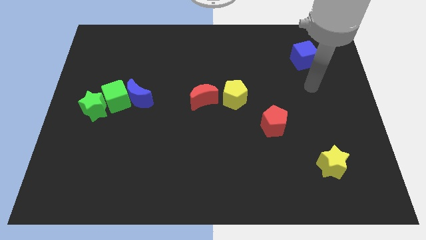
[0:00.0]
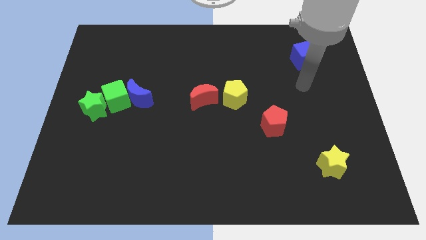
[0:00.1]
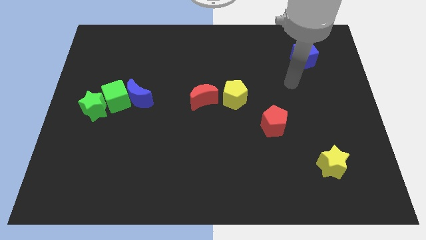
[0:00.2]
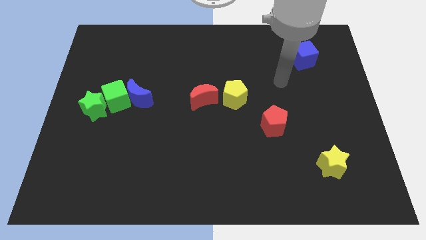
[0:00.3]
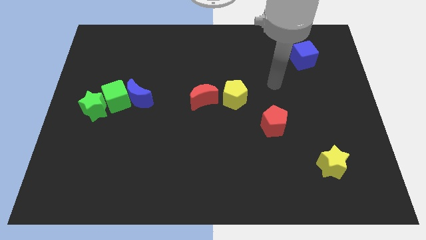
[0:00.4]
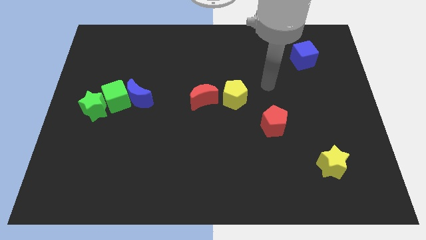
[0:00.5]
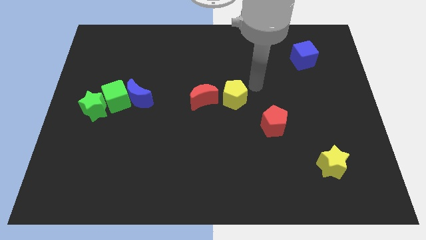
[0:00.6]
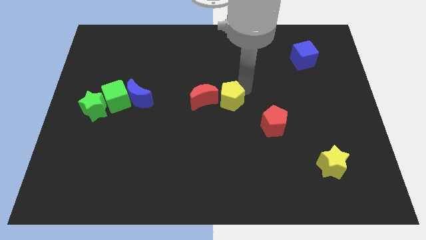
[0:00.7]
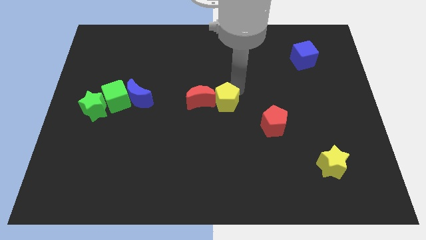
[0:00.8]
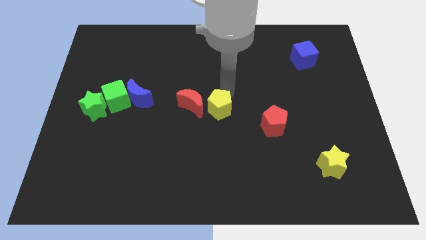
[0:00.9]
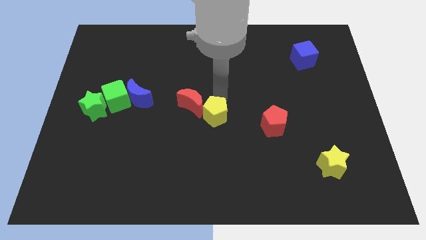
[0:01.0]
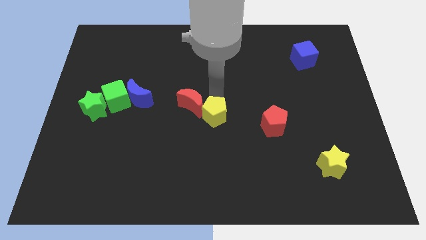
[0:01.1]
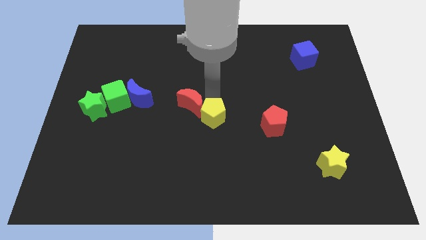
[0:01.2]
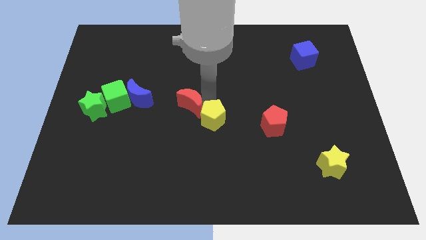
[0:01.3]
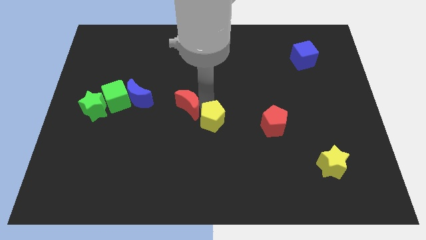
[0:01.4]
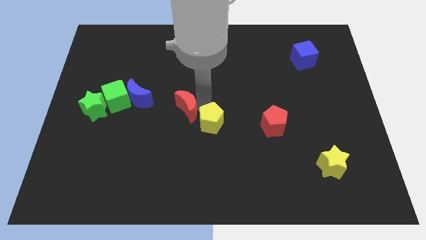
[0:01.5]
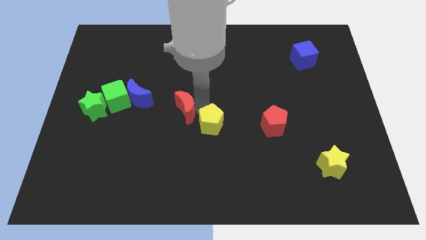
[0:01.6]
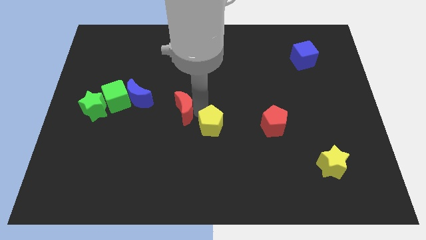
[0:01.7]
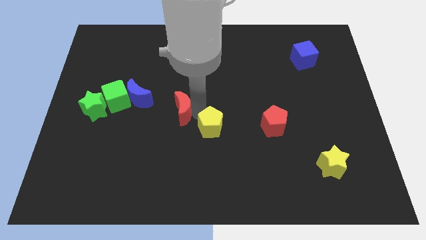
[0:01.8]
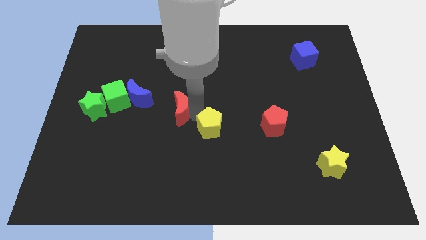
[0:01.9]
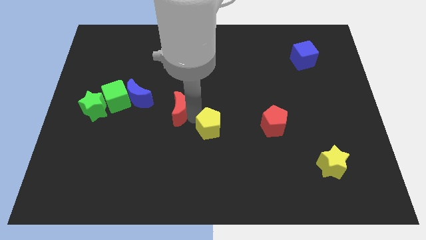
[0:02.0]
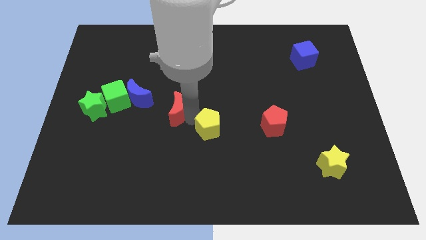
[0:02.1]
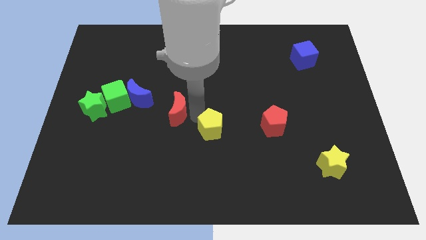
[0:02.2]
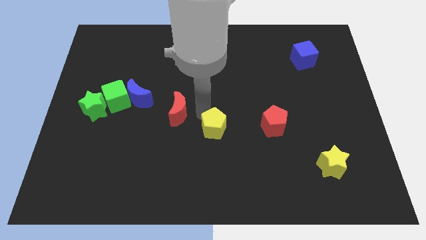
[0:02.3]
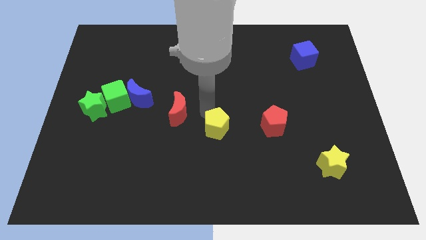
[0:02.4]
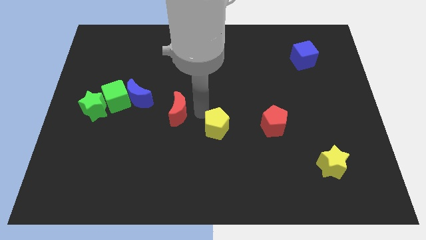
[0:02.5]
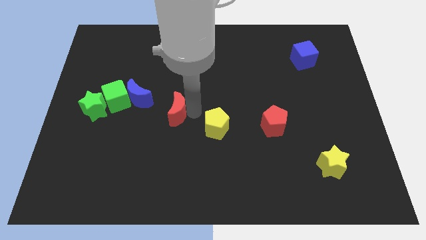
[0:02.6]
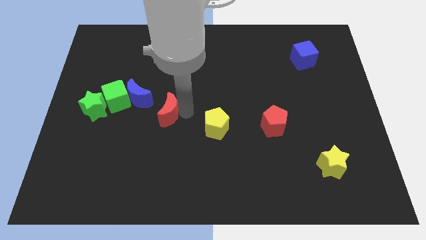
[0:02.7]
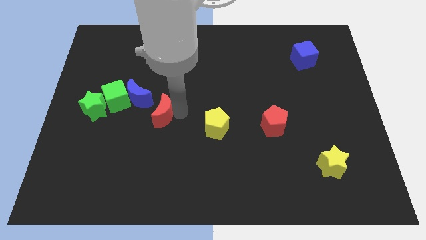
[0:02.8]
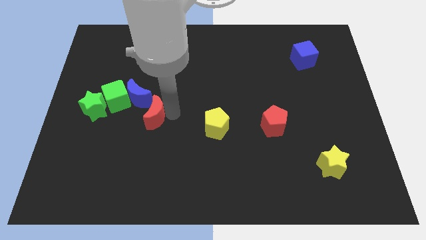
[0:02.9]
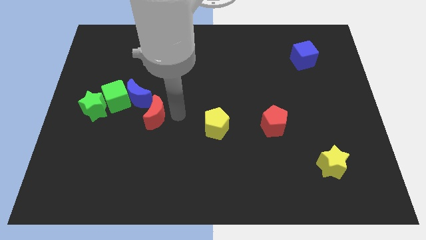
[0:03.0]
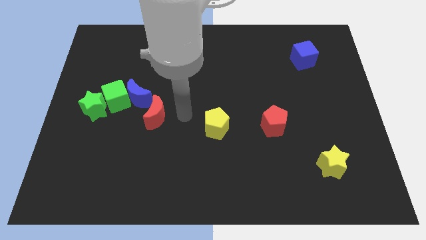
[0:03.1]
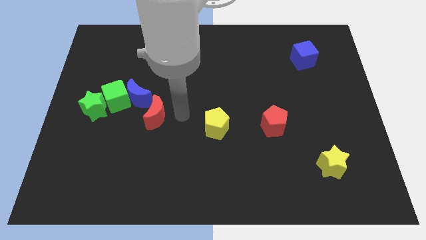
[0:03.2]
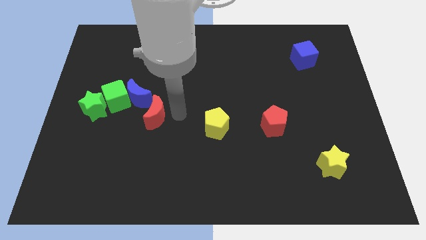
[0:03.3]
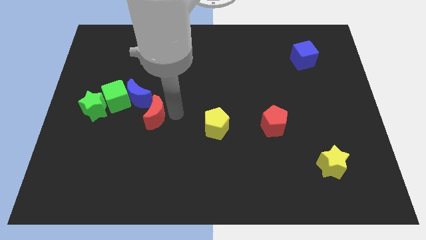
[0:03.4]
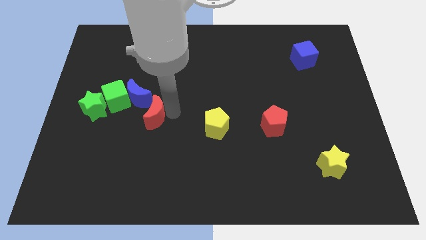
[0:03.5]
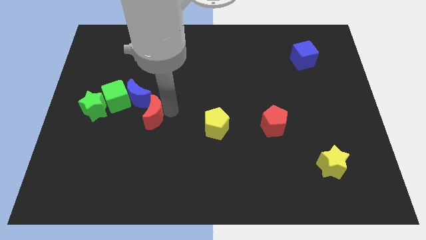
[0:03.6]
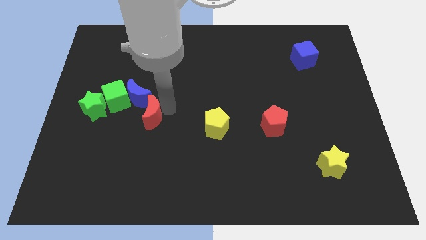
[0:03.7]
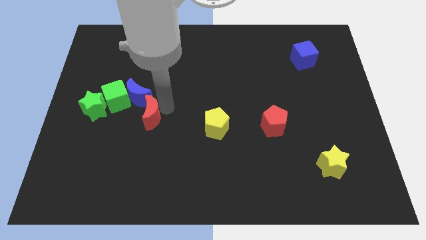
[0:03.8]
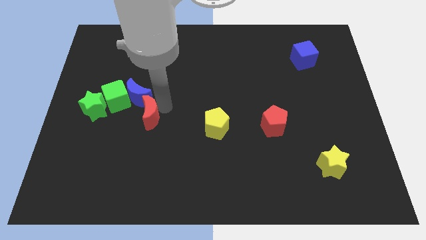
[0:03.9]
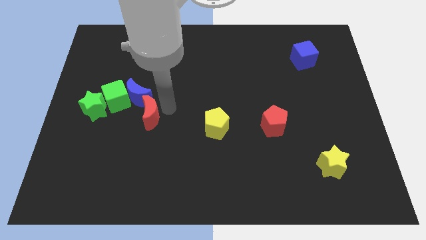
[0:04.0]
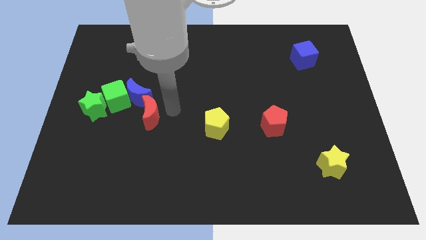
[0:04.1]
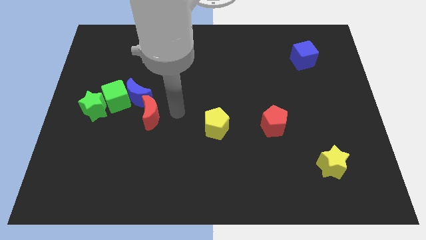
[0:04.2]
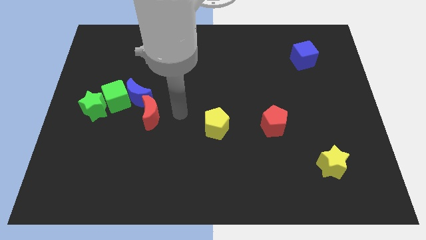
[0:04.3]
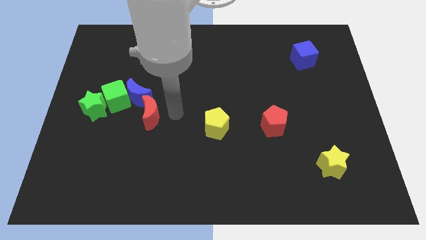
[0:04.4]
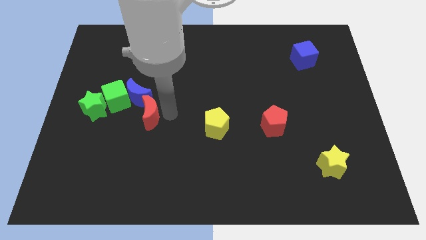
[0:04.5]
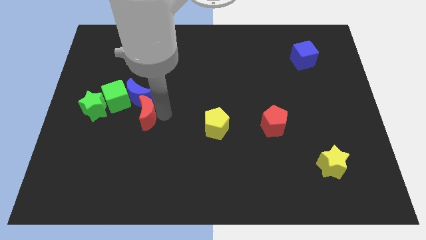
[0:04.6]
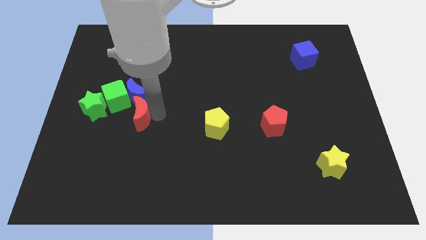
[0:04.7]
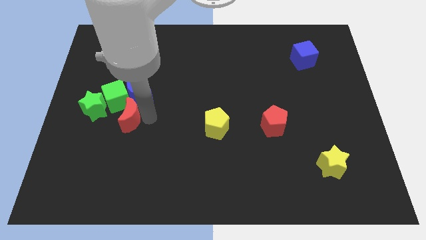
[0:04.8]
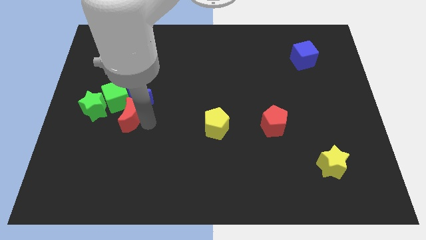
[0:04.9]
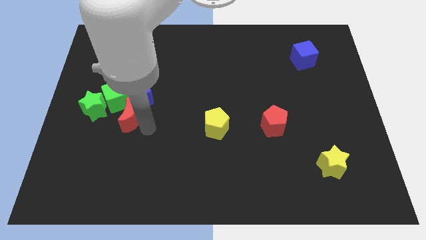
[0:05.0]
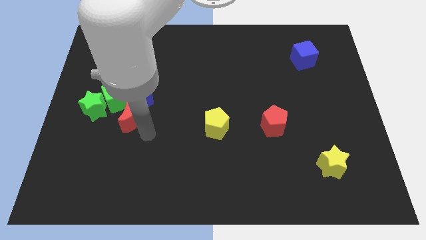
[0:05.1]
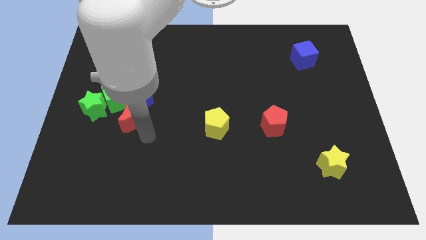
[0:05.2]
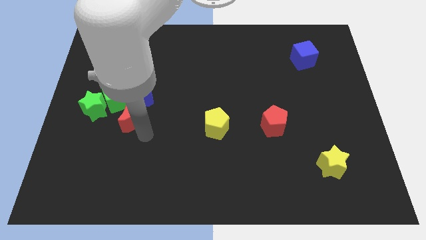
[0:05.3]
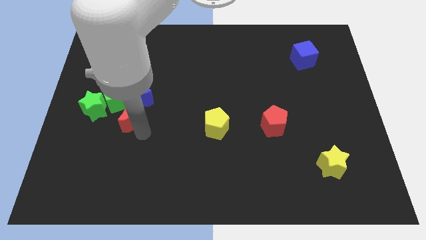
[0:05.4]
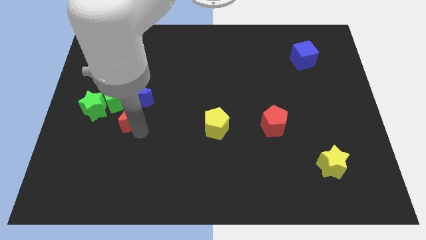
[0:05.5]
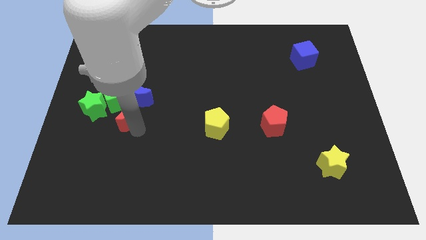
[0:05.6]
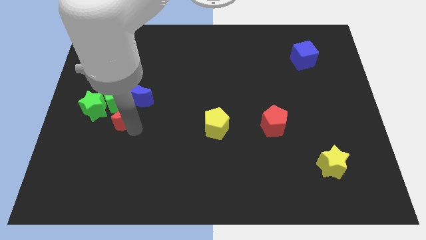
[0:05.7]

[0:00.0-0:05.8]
push the red moon next to the green cube

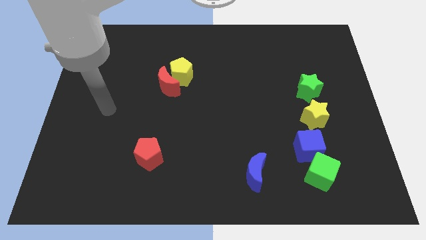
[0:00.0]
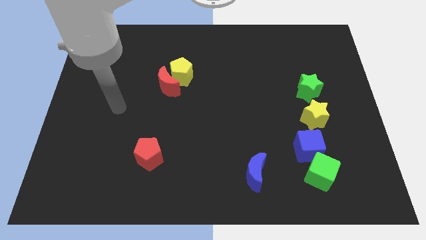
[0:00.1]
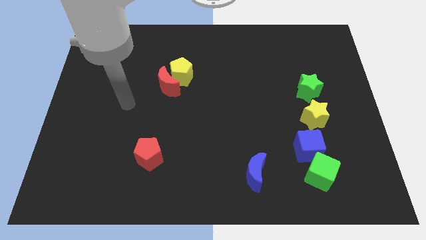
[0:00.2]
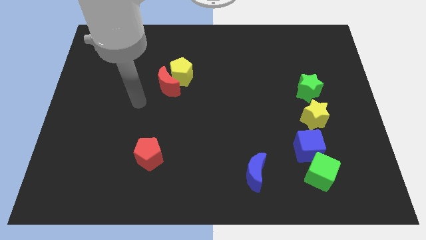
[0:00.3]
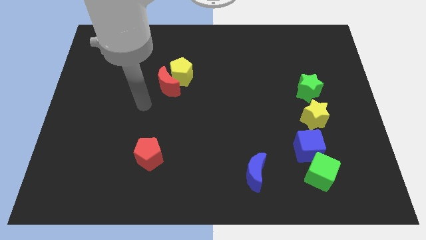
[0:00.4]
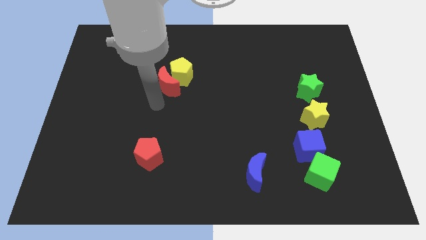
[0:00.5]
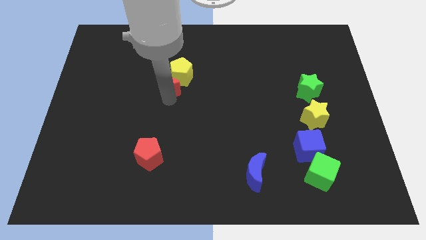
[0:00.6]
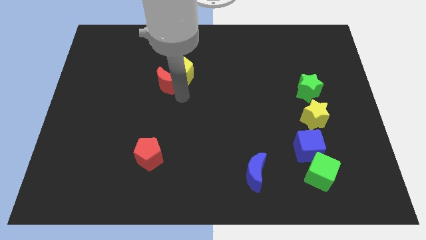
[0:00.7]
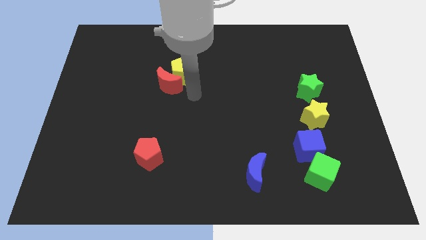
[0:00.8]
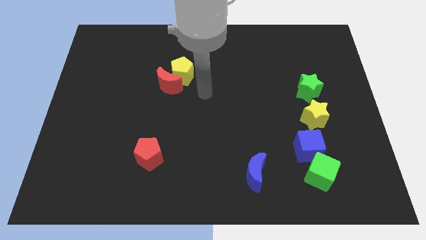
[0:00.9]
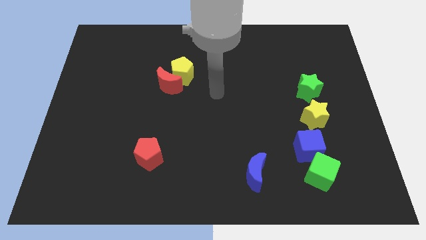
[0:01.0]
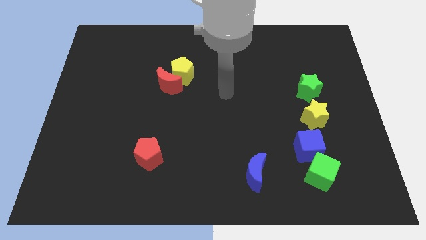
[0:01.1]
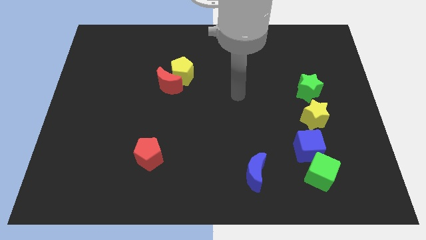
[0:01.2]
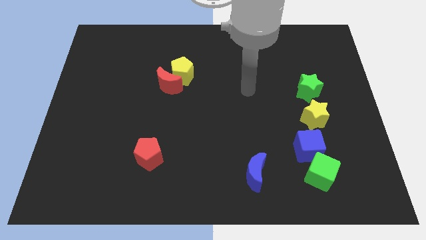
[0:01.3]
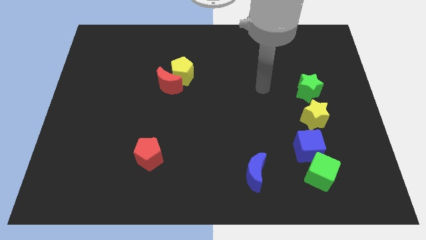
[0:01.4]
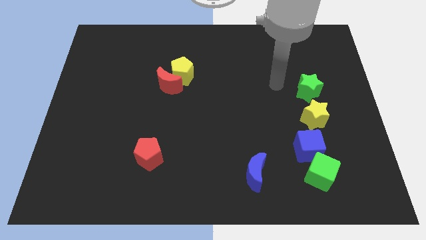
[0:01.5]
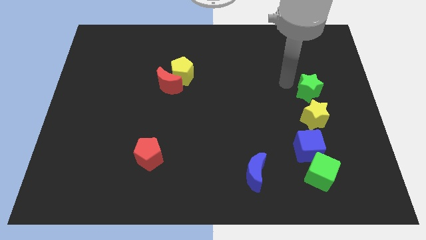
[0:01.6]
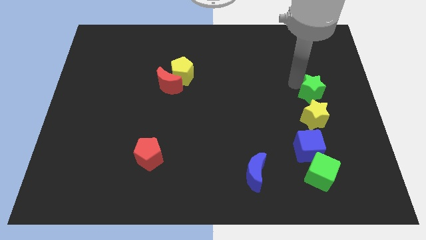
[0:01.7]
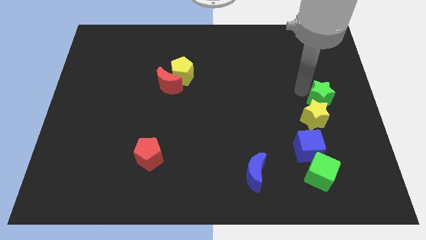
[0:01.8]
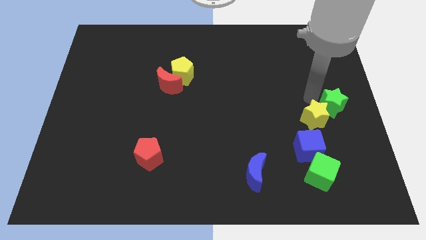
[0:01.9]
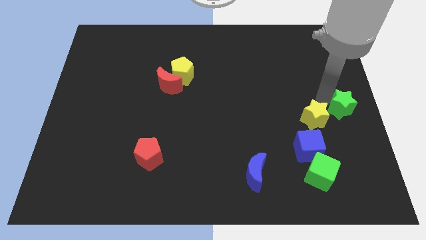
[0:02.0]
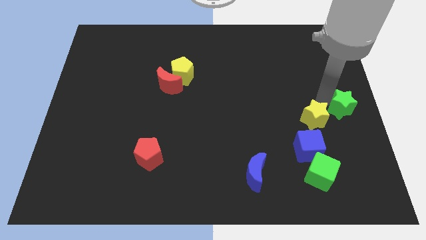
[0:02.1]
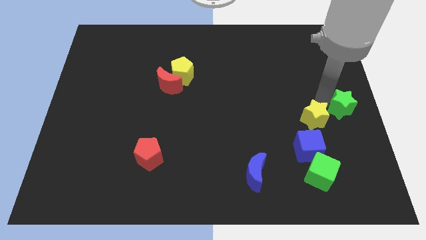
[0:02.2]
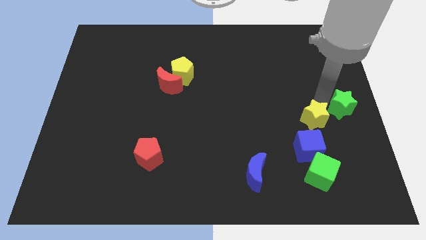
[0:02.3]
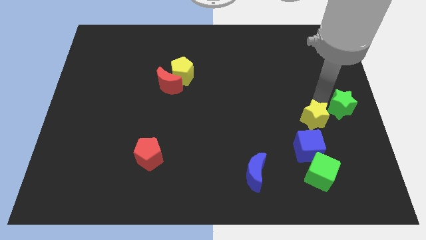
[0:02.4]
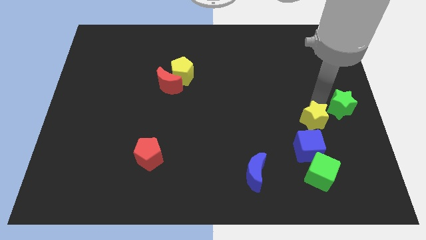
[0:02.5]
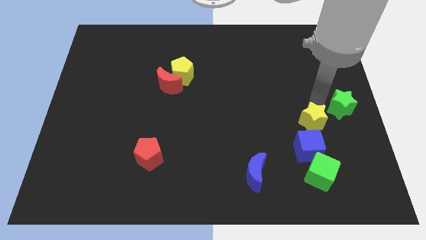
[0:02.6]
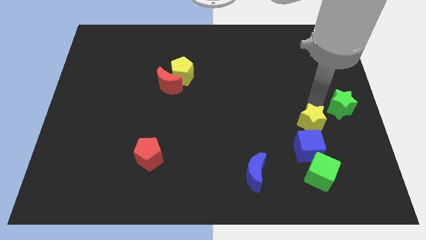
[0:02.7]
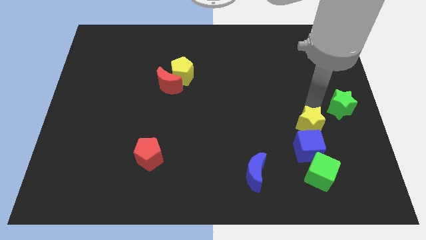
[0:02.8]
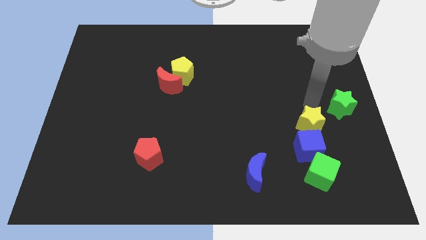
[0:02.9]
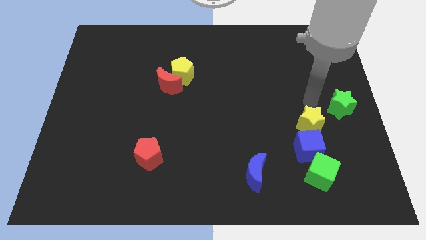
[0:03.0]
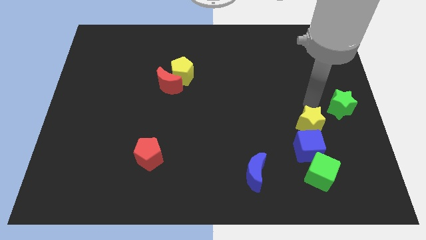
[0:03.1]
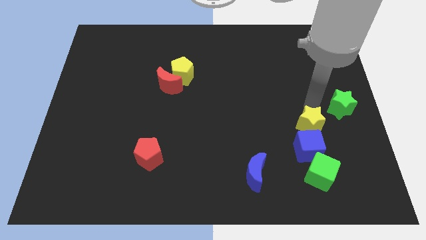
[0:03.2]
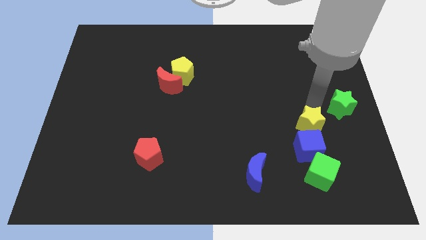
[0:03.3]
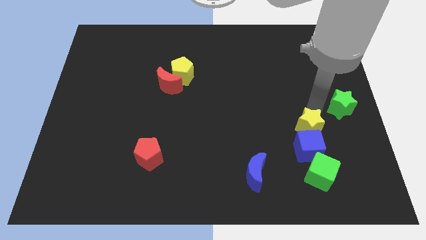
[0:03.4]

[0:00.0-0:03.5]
push the yellow star towards the blue cube
